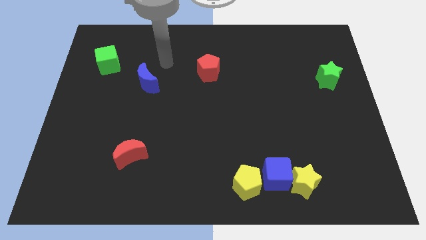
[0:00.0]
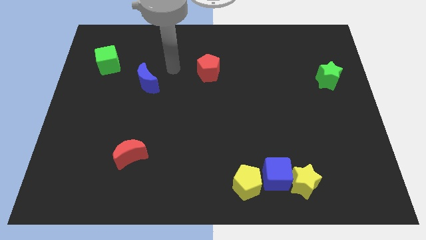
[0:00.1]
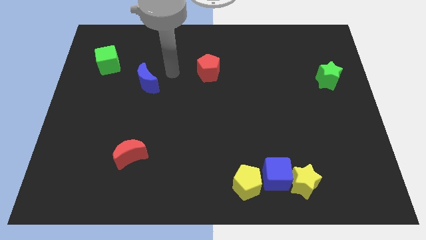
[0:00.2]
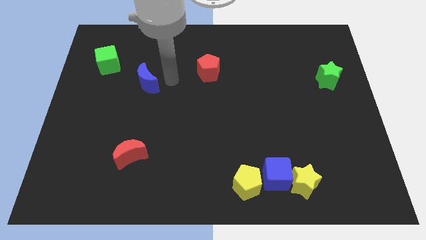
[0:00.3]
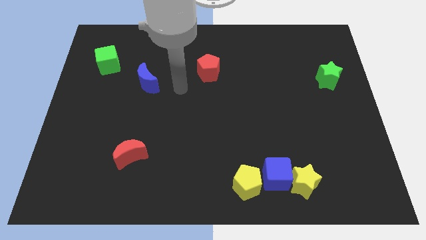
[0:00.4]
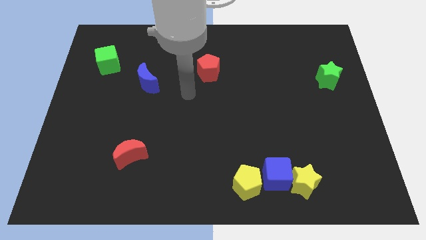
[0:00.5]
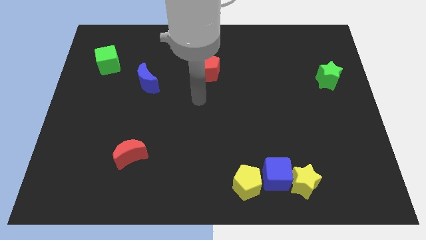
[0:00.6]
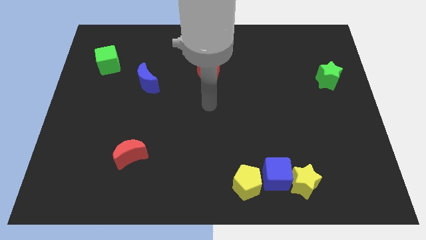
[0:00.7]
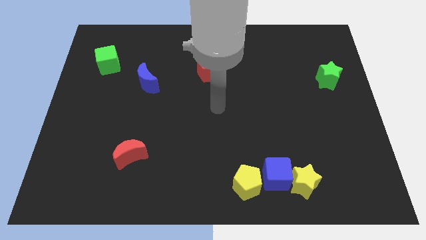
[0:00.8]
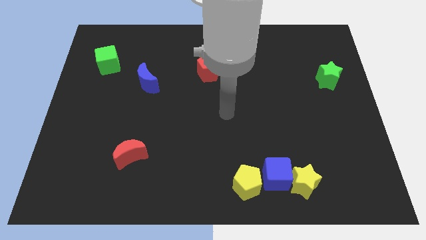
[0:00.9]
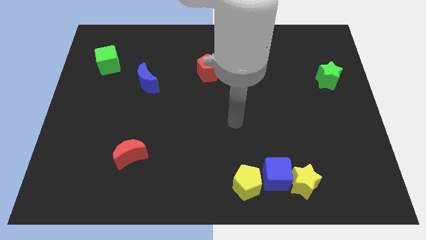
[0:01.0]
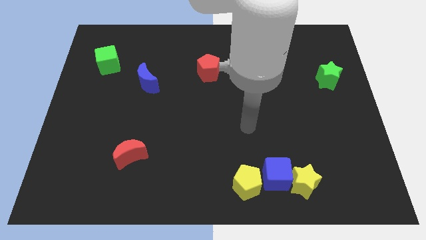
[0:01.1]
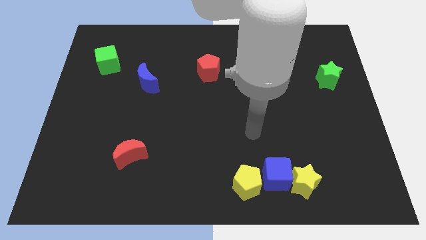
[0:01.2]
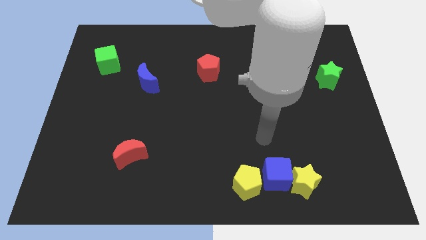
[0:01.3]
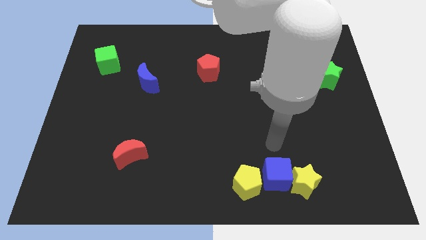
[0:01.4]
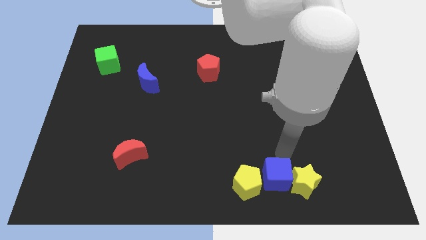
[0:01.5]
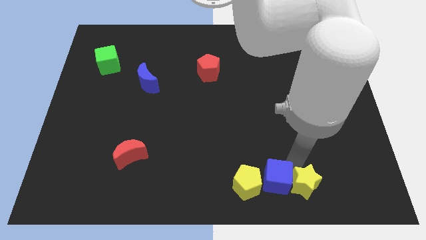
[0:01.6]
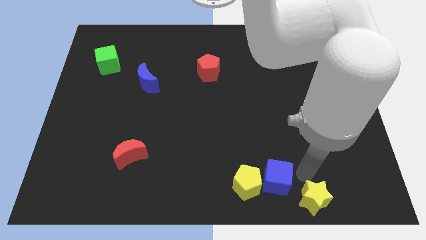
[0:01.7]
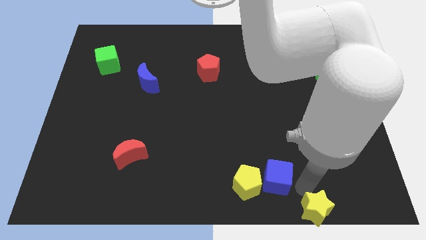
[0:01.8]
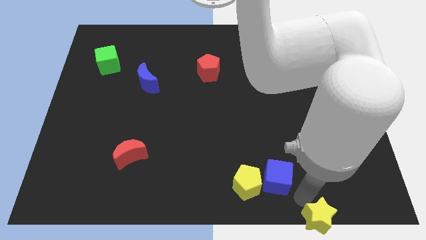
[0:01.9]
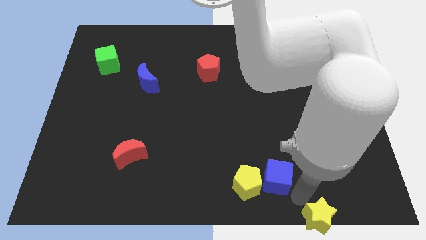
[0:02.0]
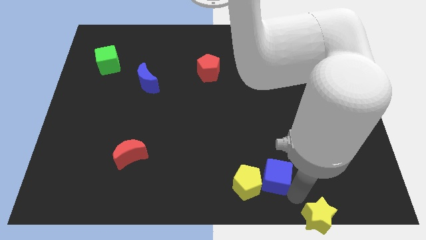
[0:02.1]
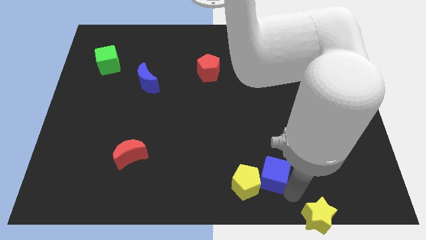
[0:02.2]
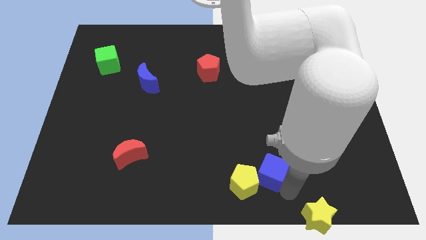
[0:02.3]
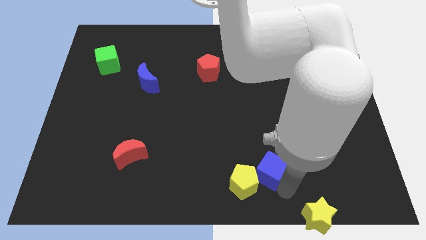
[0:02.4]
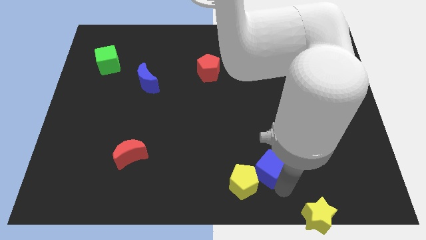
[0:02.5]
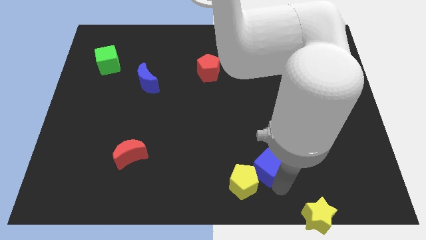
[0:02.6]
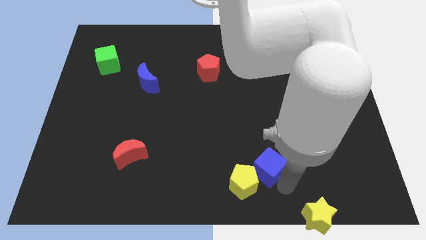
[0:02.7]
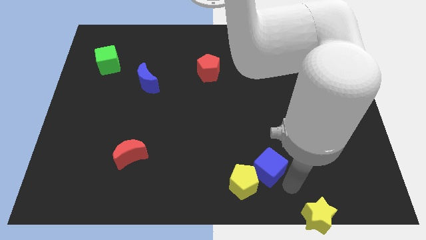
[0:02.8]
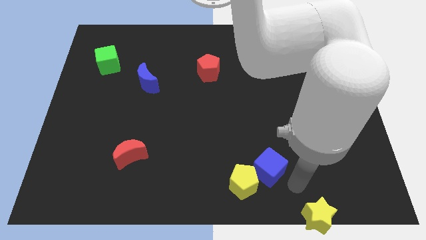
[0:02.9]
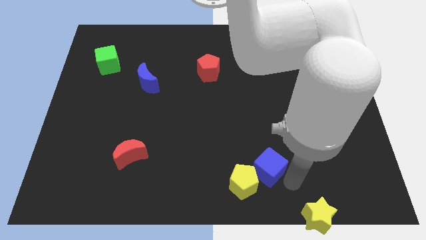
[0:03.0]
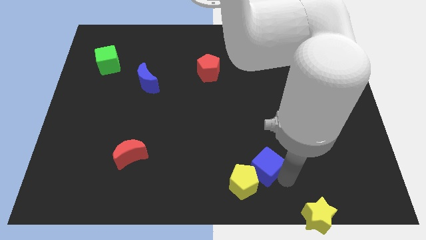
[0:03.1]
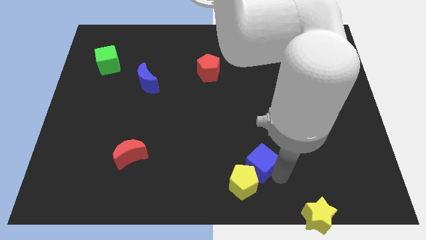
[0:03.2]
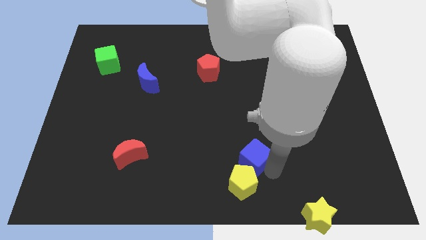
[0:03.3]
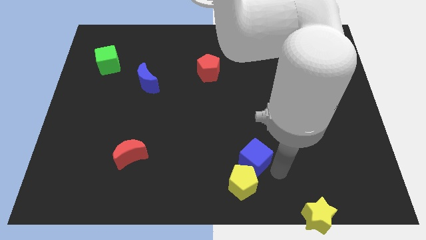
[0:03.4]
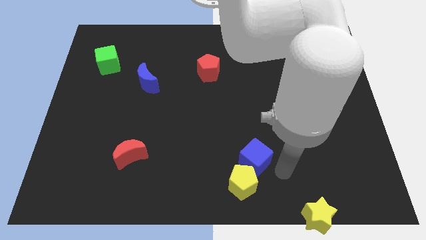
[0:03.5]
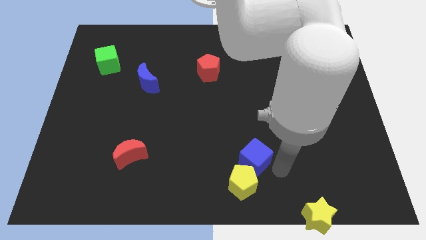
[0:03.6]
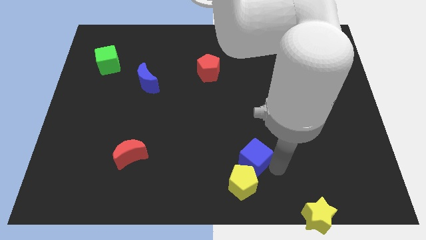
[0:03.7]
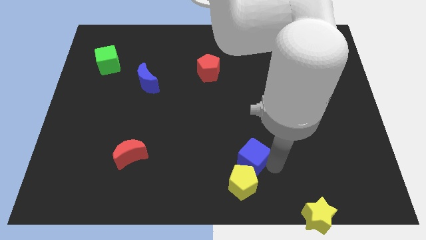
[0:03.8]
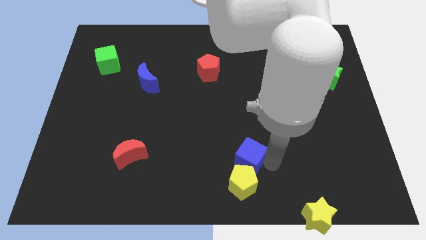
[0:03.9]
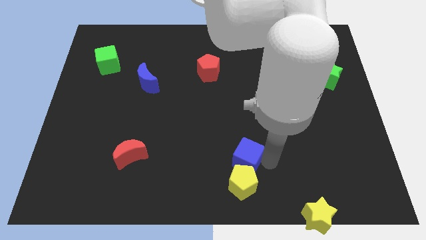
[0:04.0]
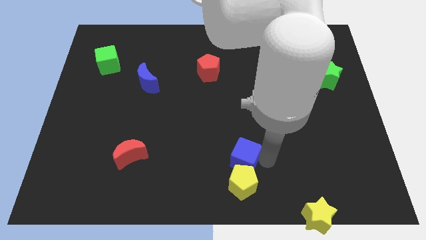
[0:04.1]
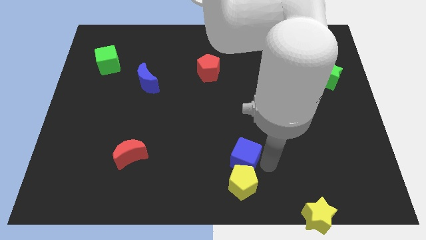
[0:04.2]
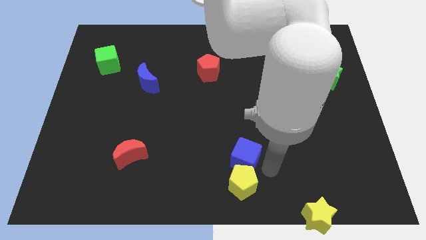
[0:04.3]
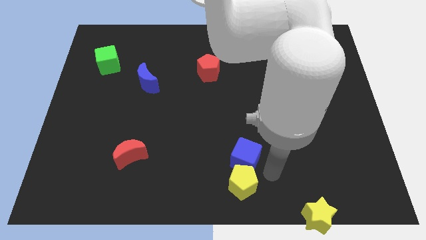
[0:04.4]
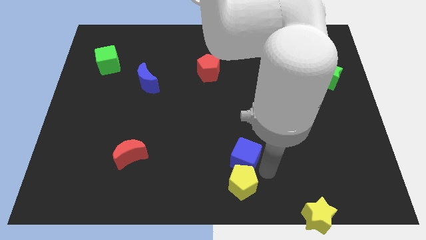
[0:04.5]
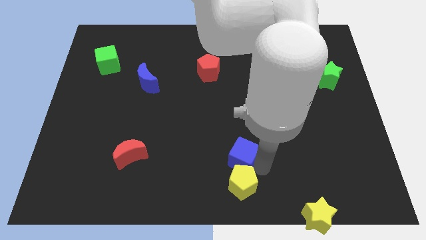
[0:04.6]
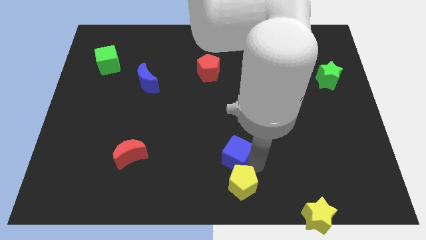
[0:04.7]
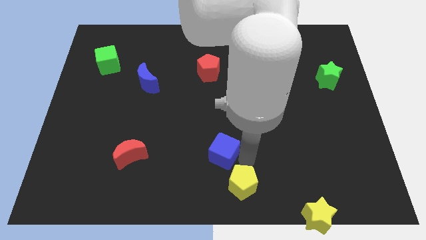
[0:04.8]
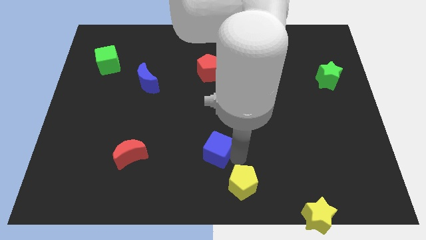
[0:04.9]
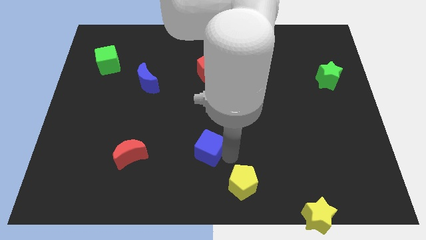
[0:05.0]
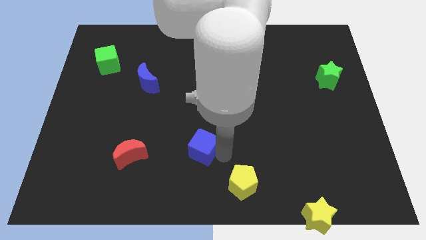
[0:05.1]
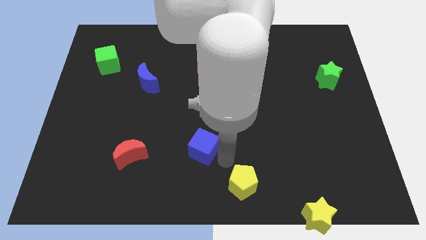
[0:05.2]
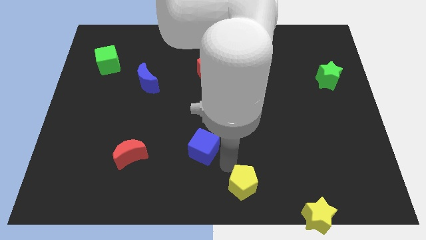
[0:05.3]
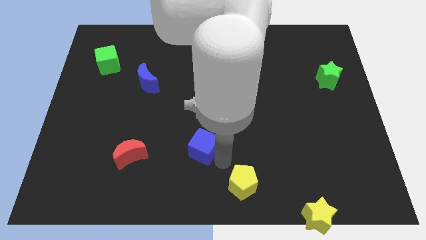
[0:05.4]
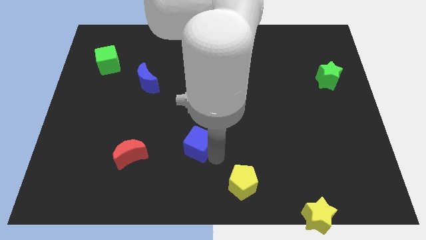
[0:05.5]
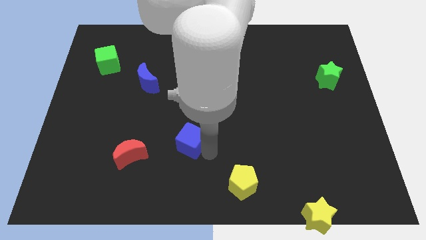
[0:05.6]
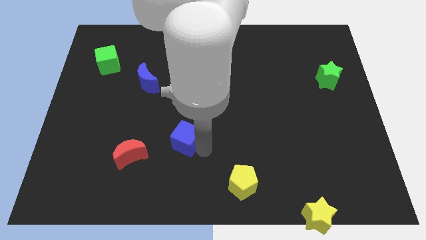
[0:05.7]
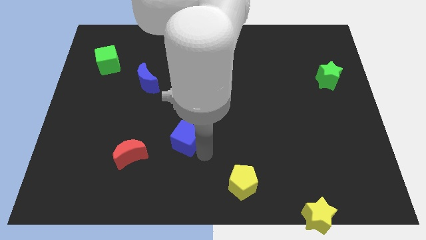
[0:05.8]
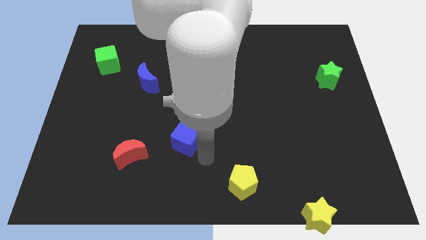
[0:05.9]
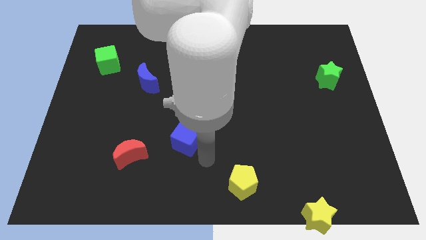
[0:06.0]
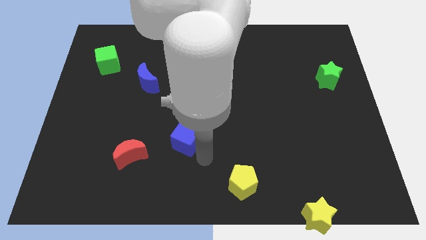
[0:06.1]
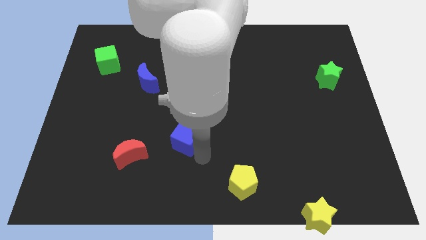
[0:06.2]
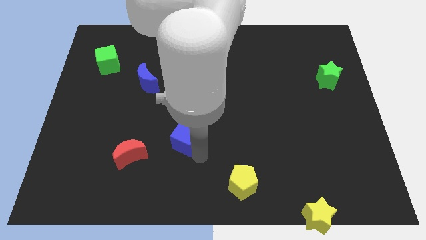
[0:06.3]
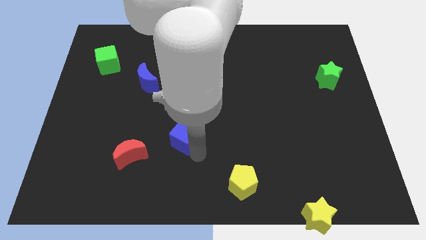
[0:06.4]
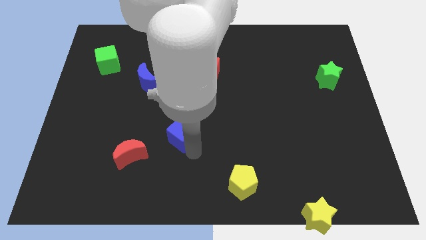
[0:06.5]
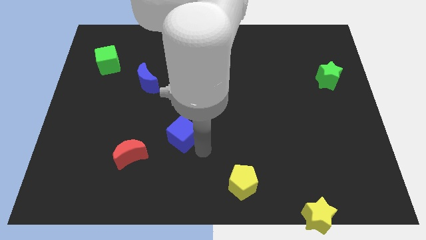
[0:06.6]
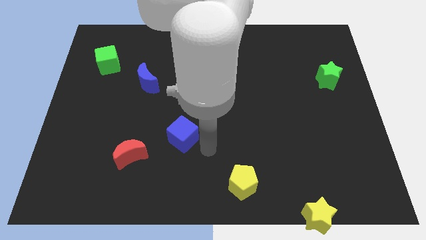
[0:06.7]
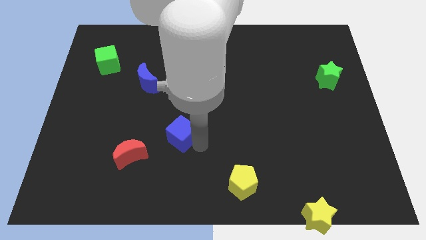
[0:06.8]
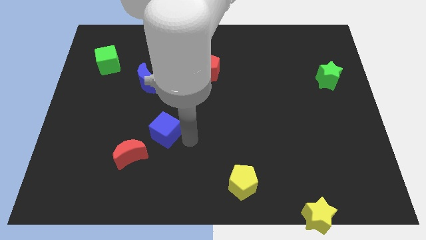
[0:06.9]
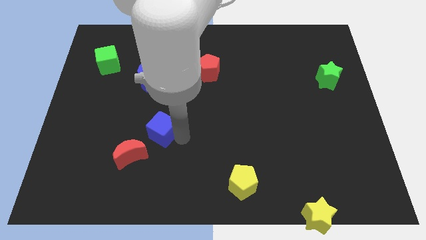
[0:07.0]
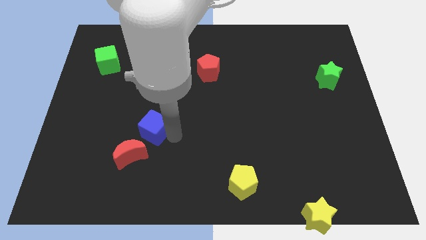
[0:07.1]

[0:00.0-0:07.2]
slide the blue cube to the bottom side of the blue moon
